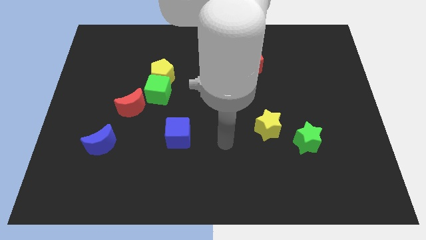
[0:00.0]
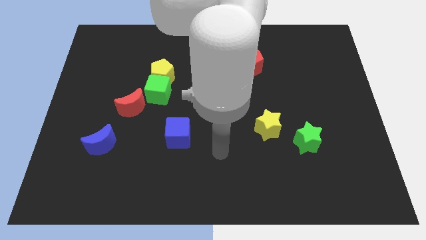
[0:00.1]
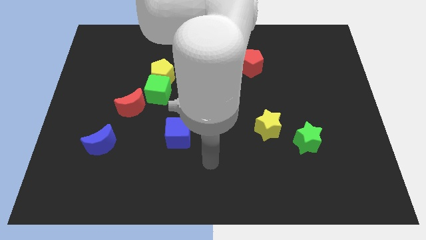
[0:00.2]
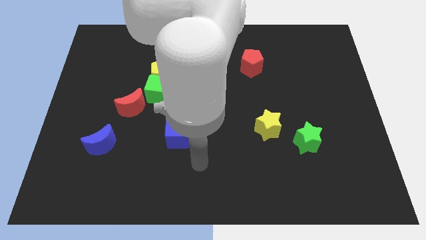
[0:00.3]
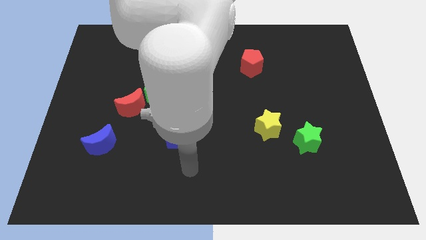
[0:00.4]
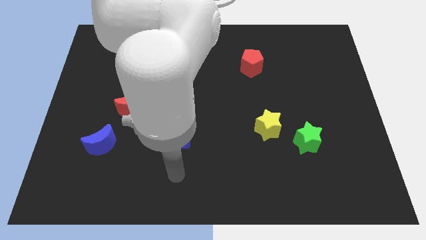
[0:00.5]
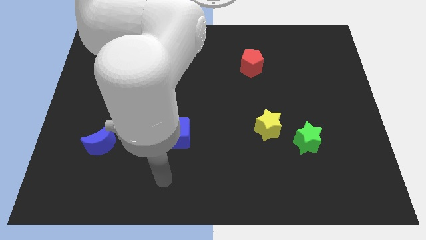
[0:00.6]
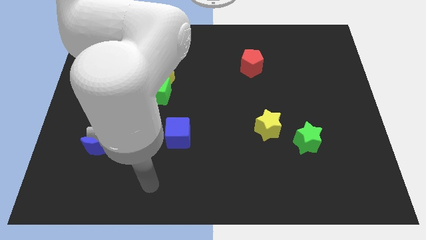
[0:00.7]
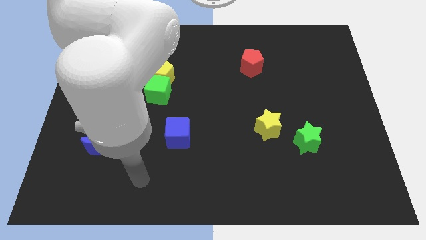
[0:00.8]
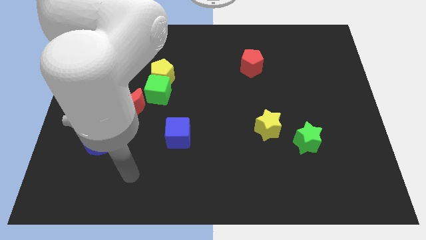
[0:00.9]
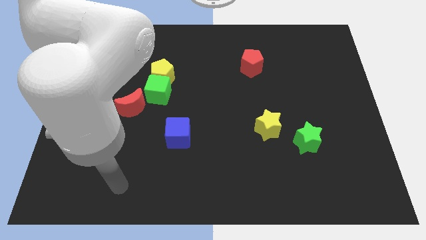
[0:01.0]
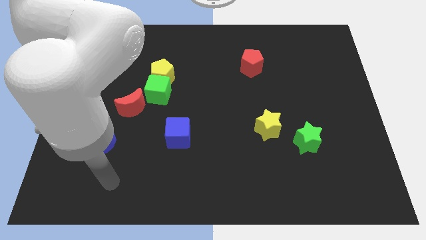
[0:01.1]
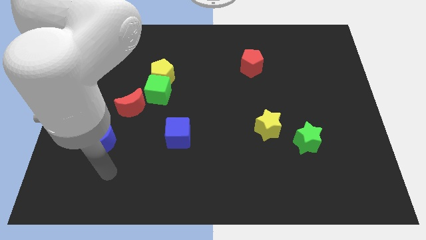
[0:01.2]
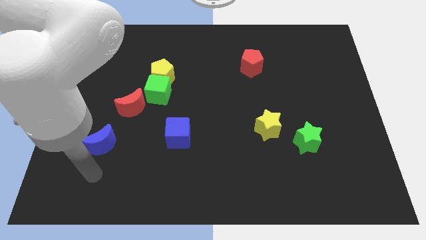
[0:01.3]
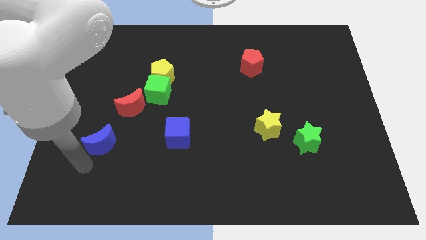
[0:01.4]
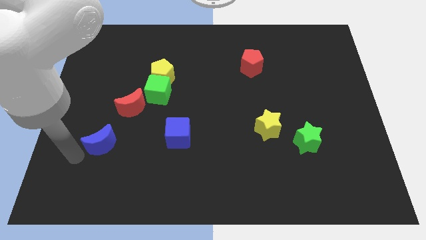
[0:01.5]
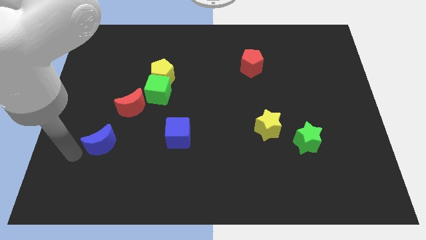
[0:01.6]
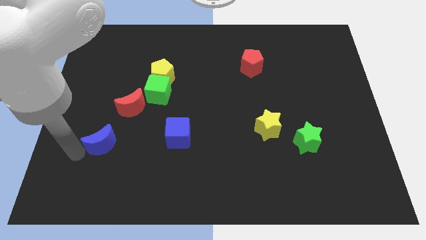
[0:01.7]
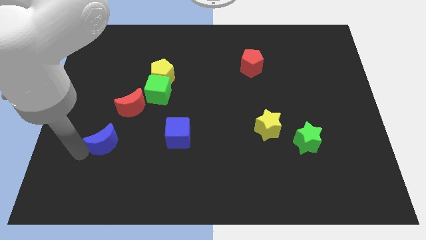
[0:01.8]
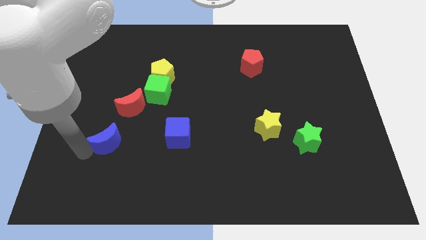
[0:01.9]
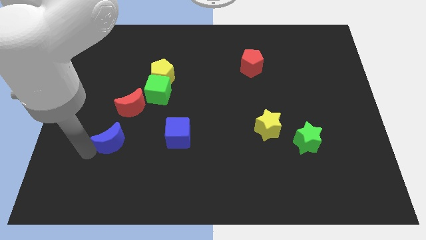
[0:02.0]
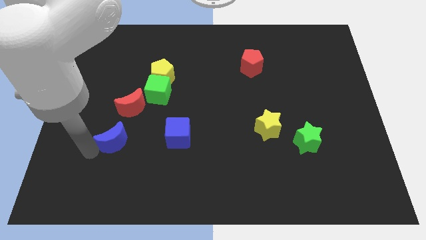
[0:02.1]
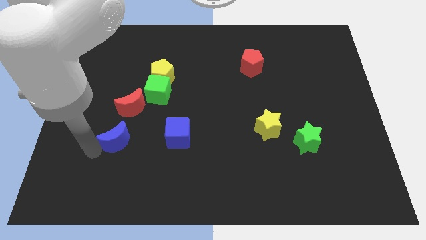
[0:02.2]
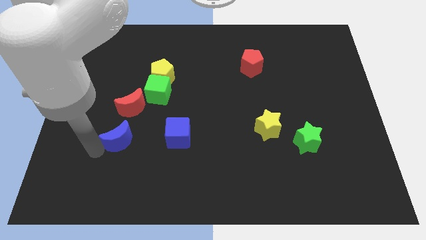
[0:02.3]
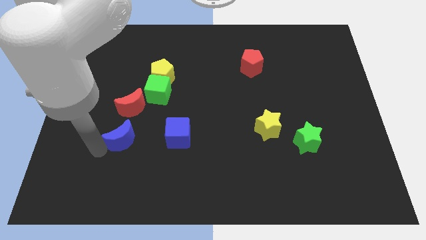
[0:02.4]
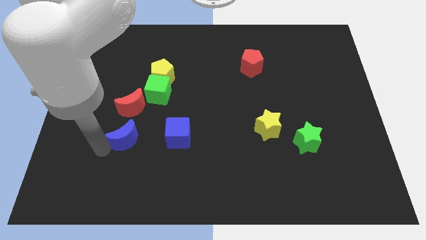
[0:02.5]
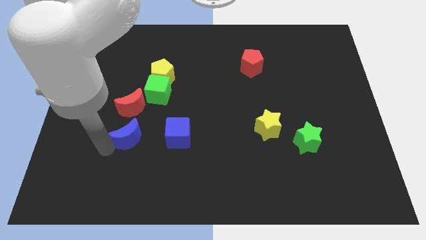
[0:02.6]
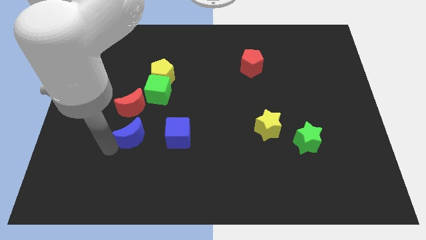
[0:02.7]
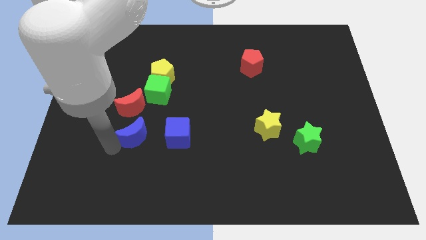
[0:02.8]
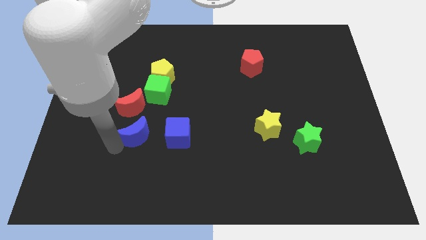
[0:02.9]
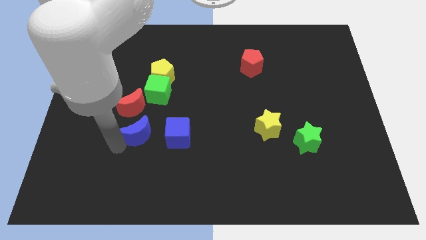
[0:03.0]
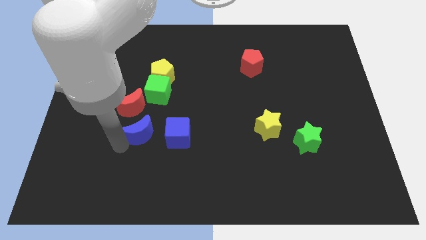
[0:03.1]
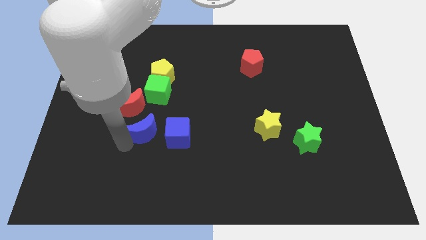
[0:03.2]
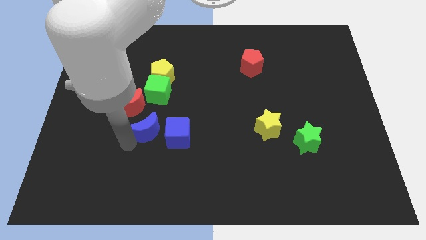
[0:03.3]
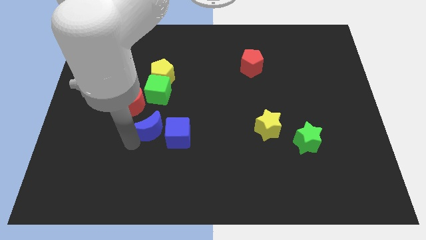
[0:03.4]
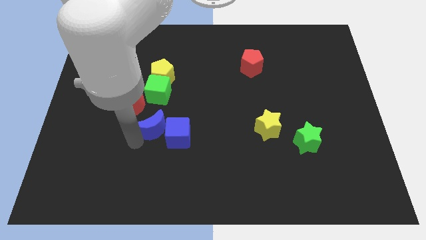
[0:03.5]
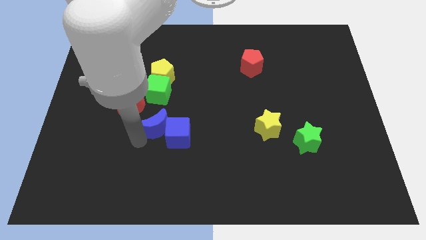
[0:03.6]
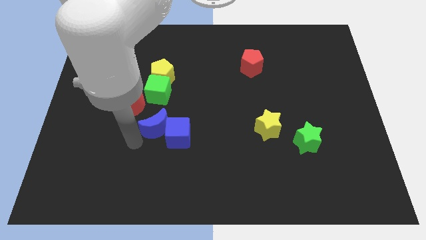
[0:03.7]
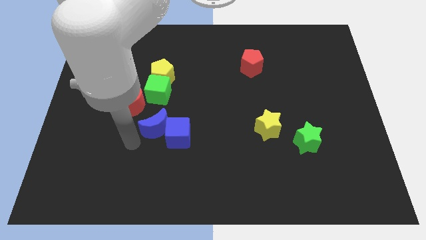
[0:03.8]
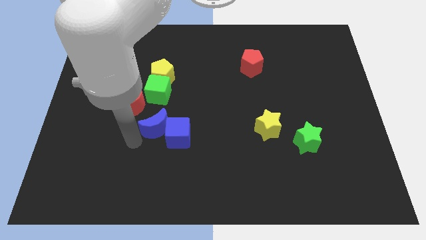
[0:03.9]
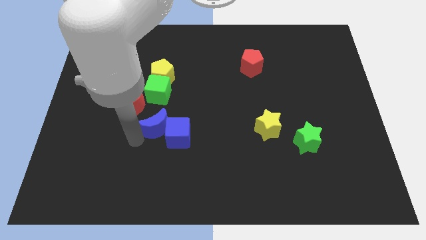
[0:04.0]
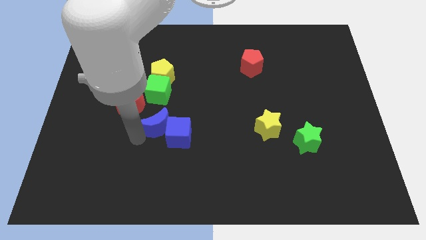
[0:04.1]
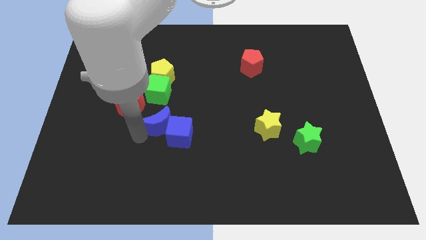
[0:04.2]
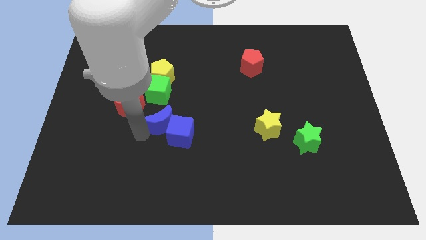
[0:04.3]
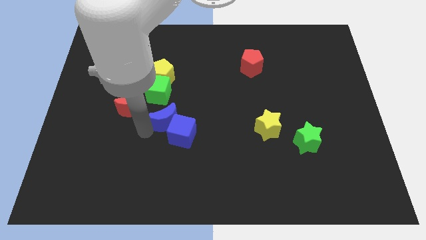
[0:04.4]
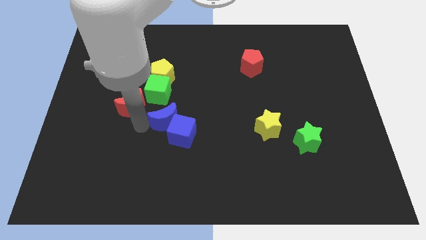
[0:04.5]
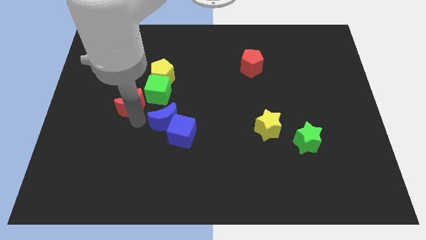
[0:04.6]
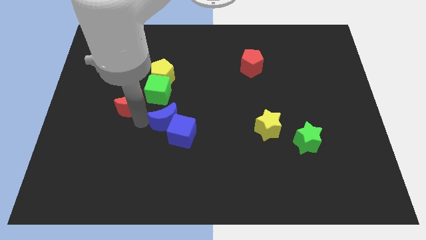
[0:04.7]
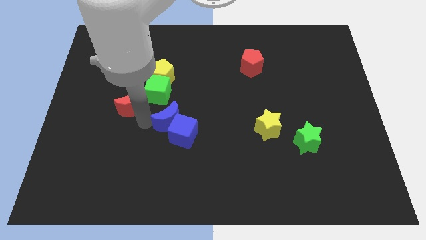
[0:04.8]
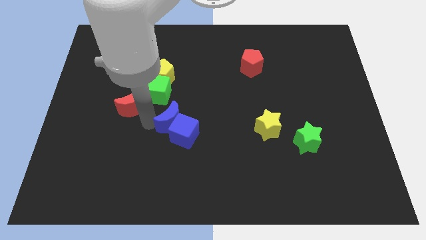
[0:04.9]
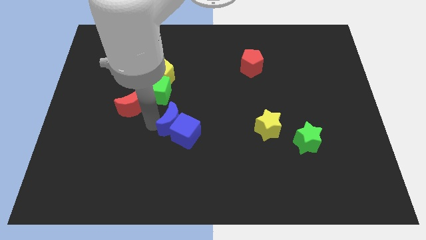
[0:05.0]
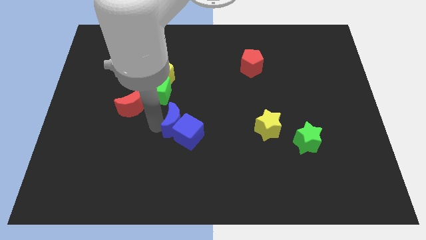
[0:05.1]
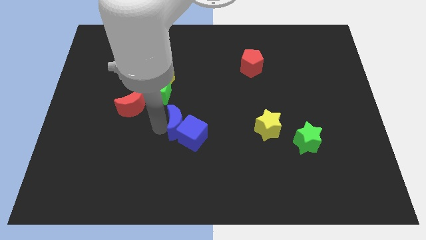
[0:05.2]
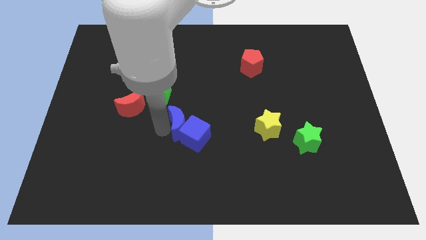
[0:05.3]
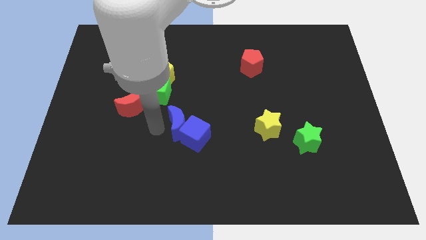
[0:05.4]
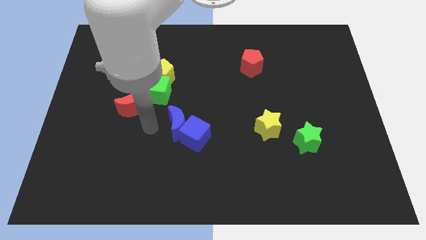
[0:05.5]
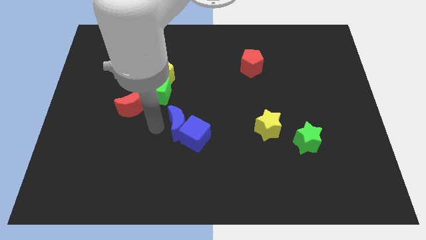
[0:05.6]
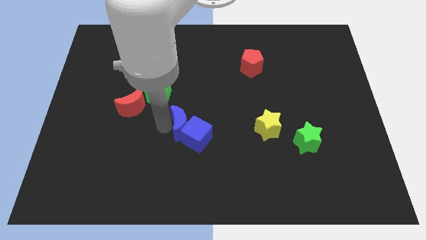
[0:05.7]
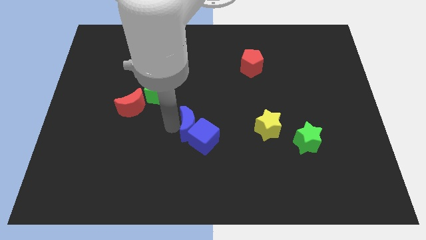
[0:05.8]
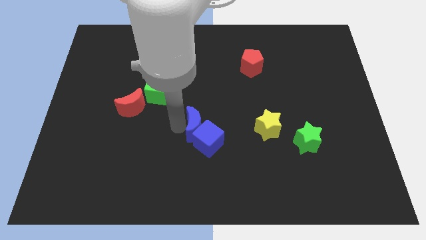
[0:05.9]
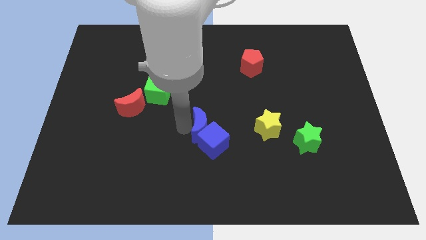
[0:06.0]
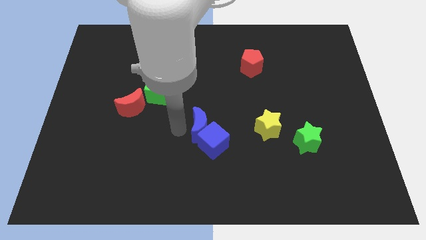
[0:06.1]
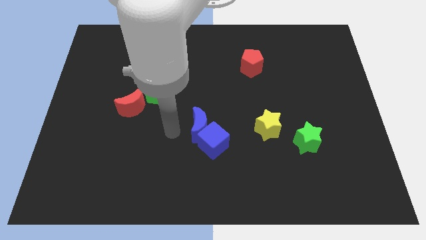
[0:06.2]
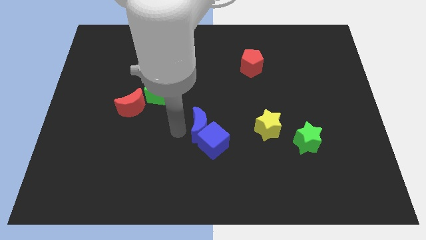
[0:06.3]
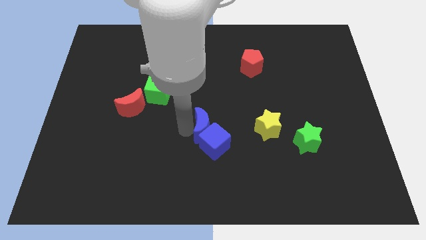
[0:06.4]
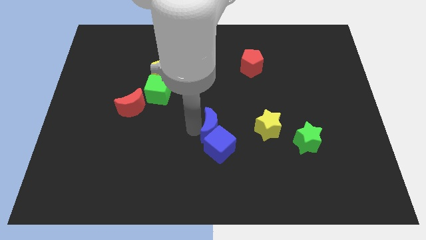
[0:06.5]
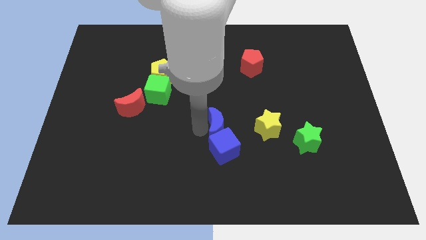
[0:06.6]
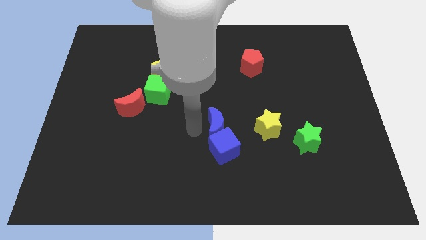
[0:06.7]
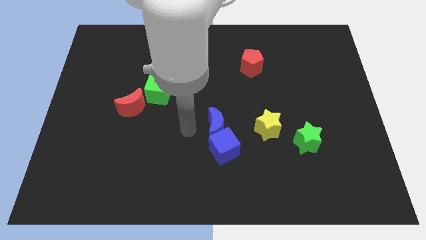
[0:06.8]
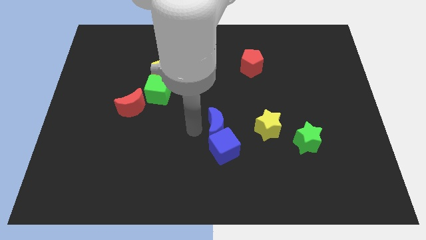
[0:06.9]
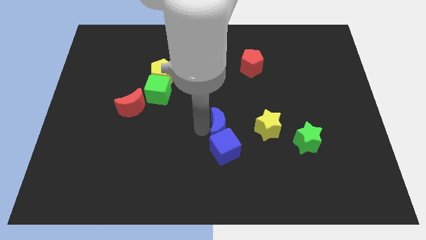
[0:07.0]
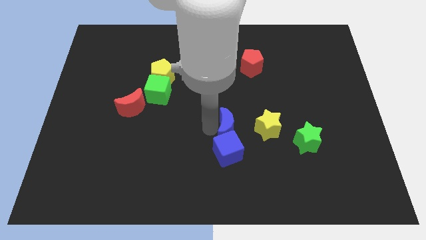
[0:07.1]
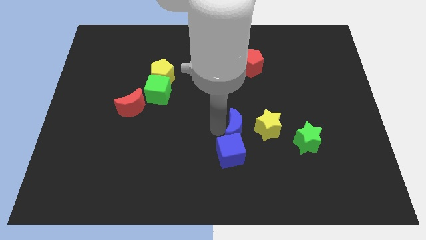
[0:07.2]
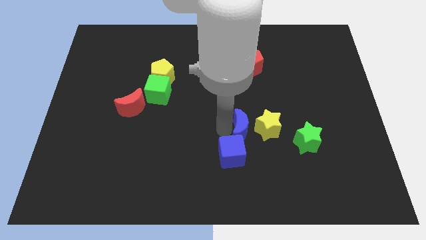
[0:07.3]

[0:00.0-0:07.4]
put the blue moon to the yellow star
